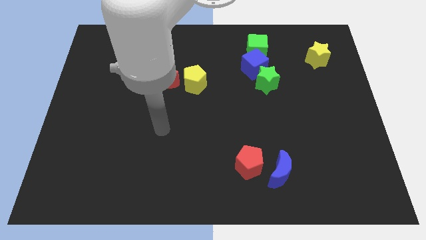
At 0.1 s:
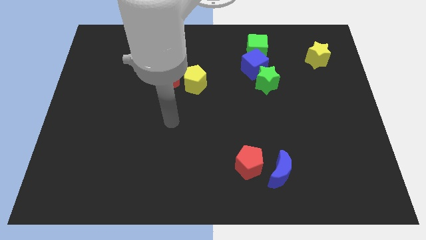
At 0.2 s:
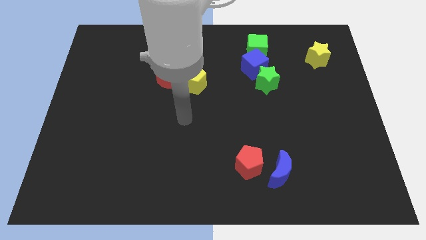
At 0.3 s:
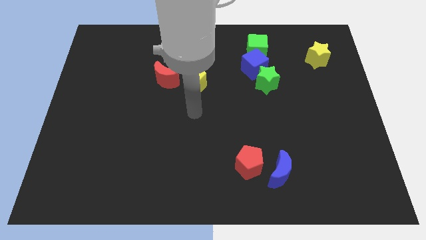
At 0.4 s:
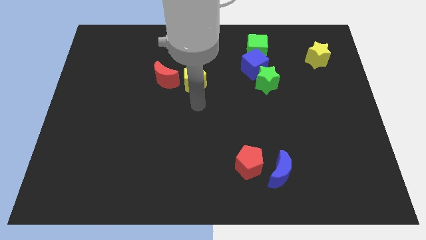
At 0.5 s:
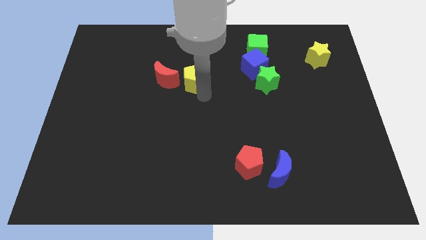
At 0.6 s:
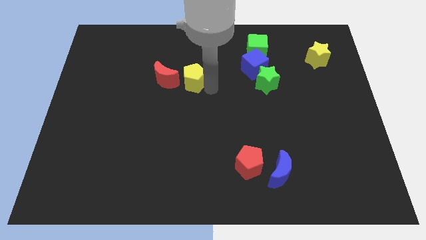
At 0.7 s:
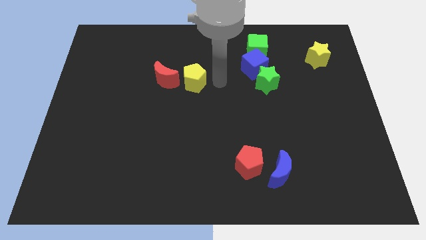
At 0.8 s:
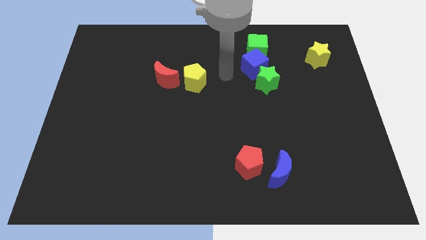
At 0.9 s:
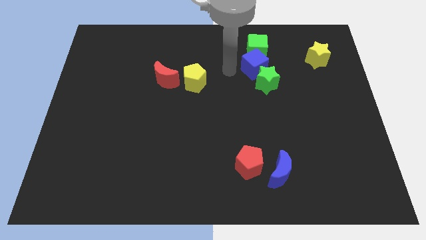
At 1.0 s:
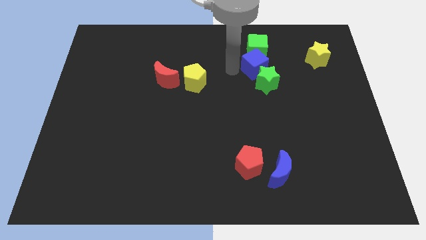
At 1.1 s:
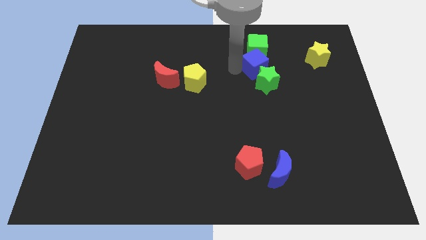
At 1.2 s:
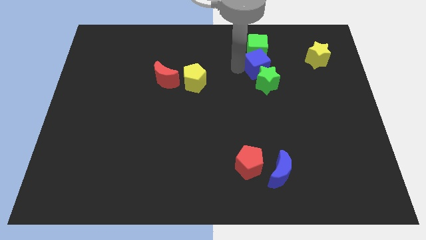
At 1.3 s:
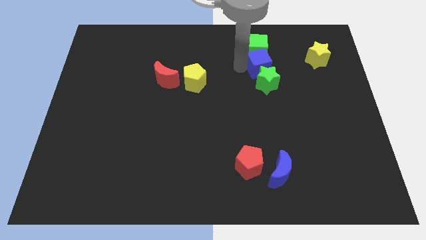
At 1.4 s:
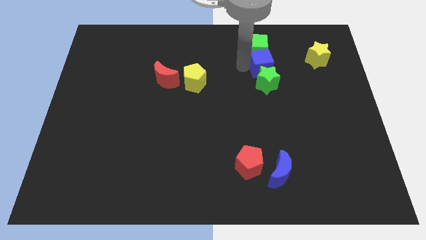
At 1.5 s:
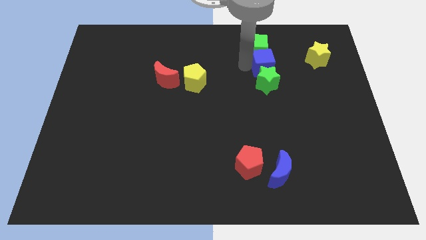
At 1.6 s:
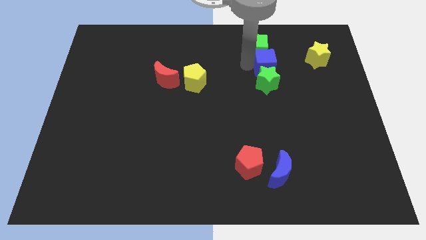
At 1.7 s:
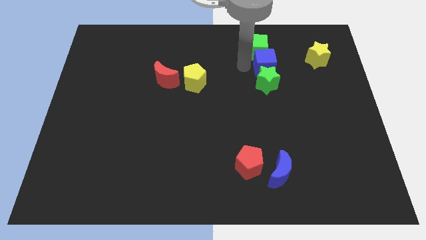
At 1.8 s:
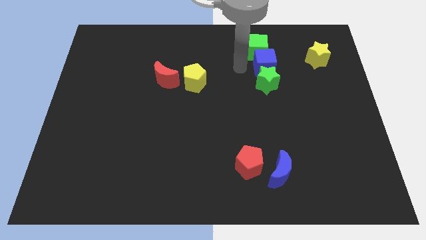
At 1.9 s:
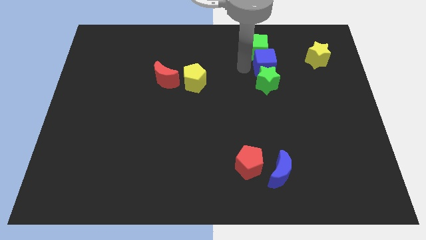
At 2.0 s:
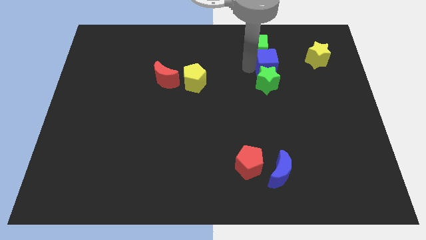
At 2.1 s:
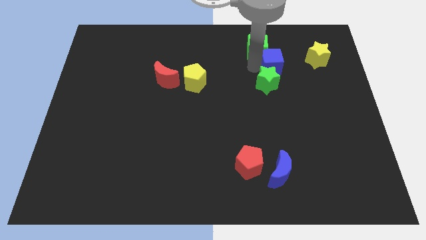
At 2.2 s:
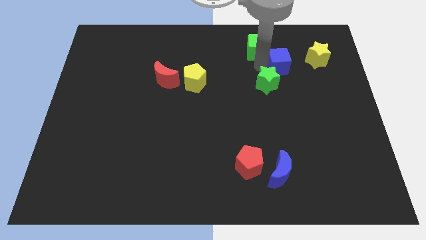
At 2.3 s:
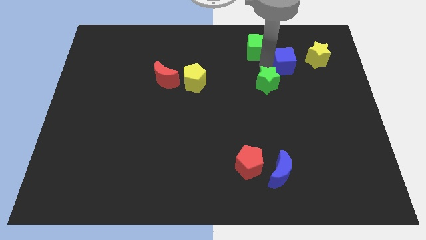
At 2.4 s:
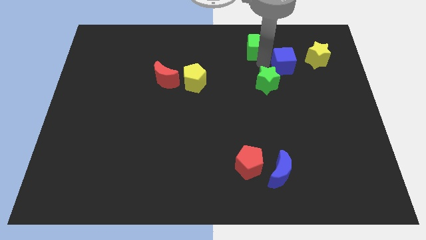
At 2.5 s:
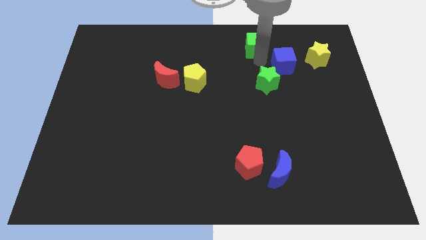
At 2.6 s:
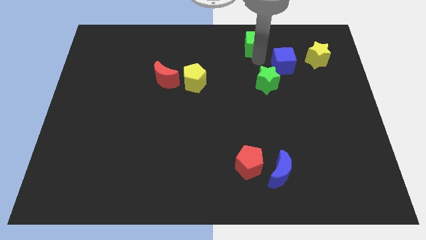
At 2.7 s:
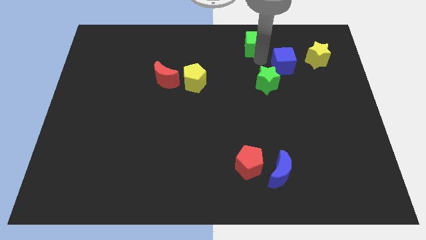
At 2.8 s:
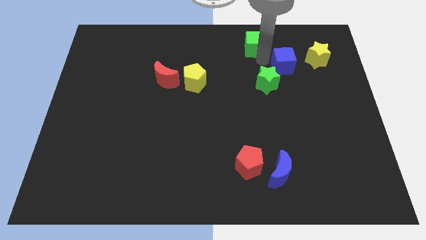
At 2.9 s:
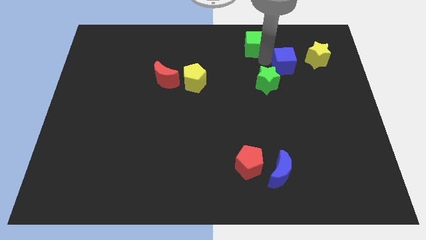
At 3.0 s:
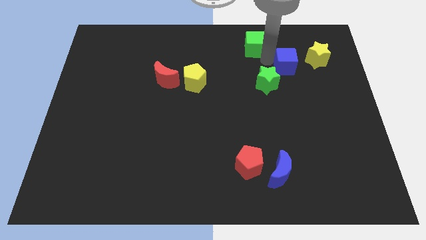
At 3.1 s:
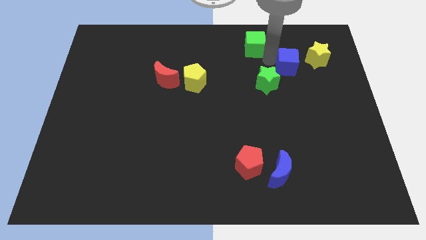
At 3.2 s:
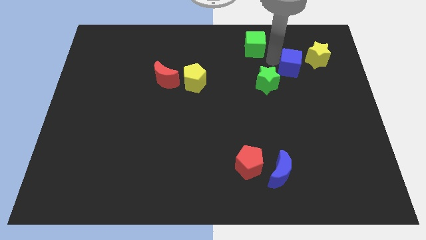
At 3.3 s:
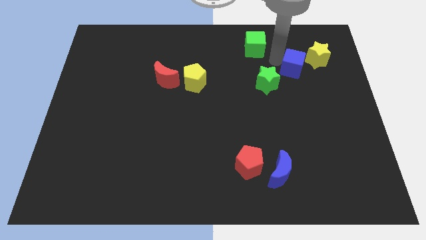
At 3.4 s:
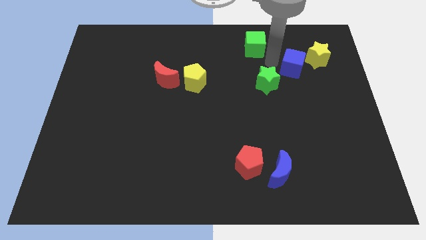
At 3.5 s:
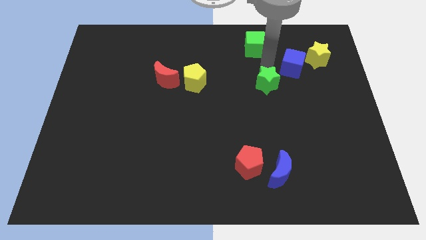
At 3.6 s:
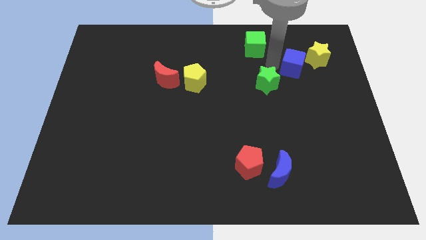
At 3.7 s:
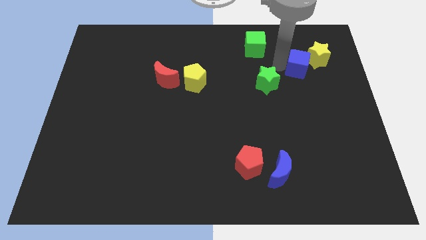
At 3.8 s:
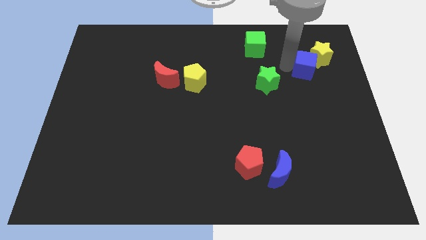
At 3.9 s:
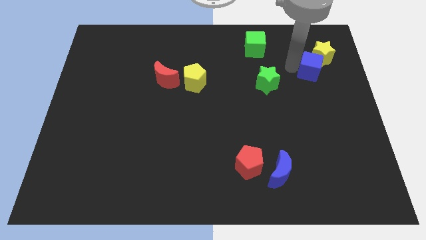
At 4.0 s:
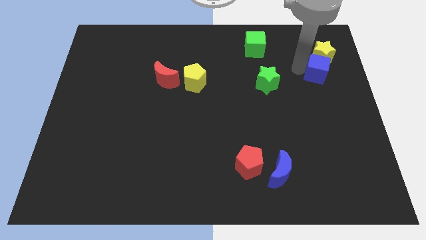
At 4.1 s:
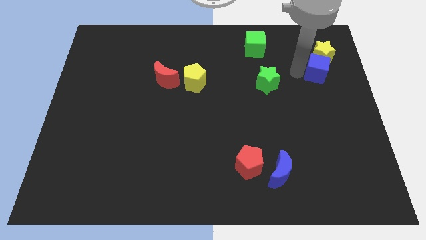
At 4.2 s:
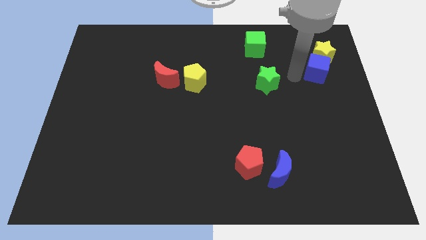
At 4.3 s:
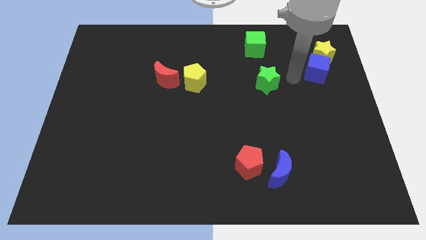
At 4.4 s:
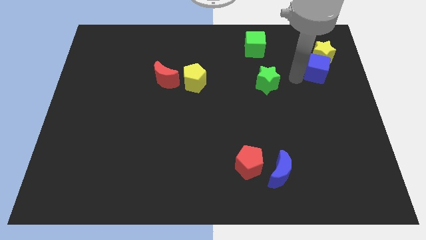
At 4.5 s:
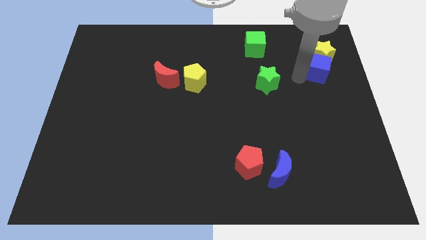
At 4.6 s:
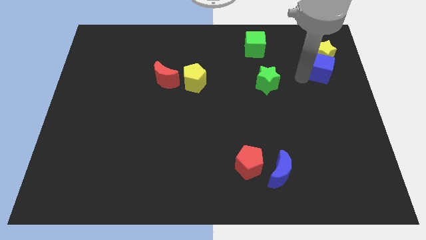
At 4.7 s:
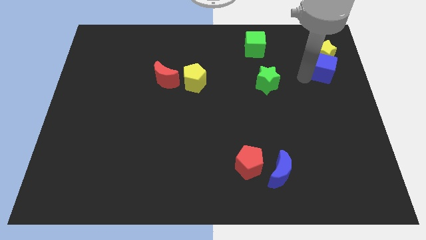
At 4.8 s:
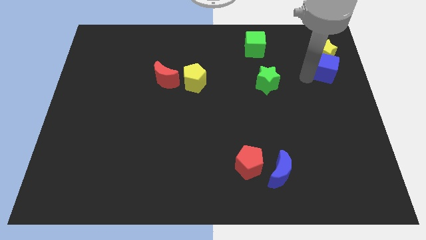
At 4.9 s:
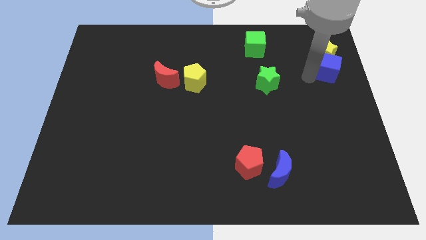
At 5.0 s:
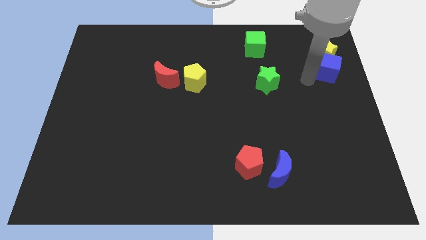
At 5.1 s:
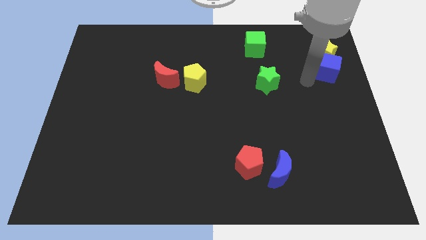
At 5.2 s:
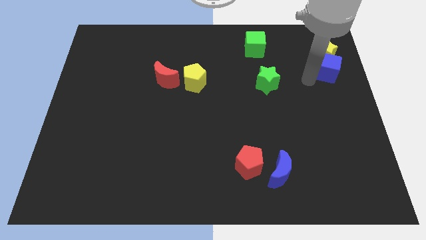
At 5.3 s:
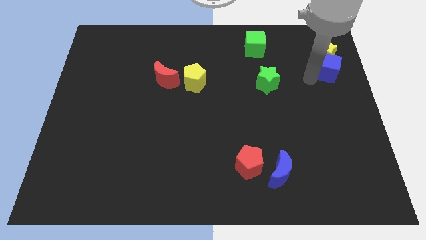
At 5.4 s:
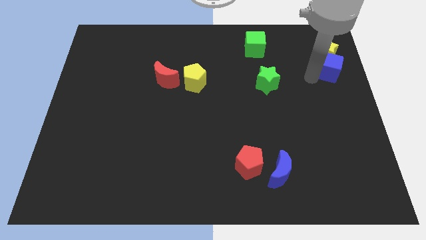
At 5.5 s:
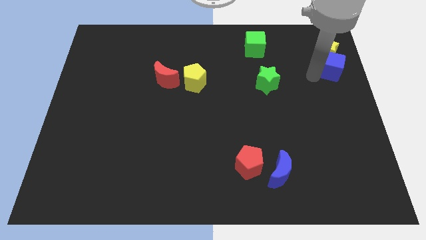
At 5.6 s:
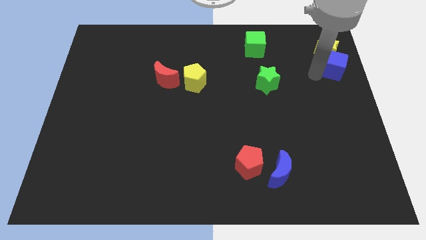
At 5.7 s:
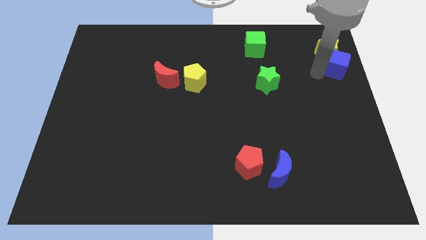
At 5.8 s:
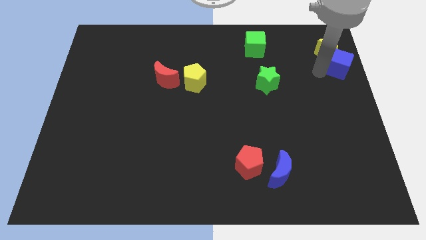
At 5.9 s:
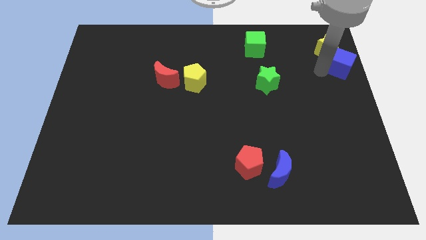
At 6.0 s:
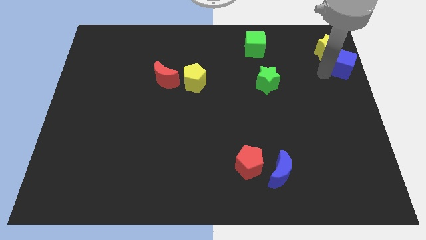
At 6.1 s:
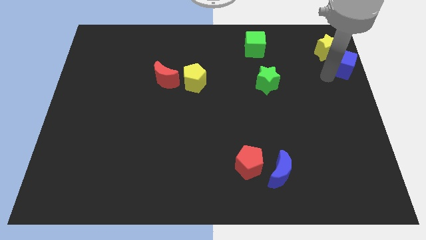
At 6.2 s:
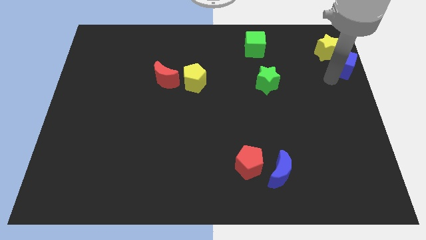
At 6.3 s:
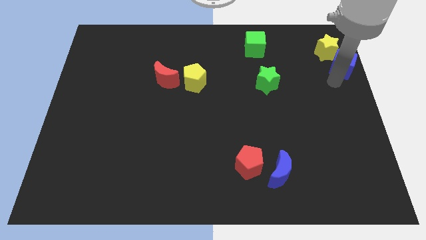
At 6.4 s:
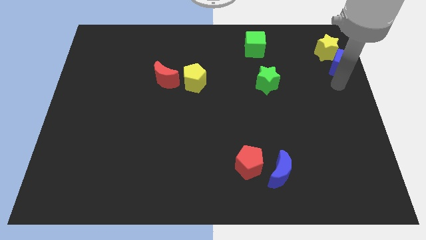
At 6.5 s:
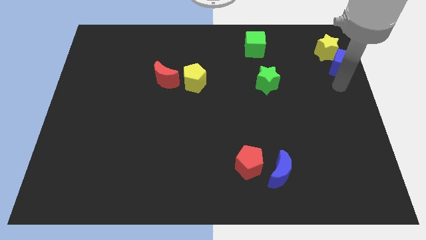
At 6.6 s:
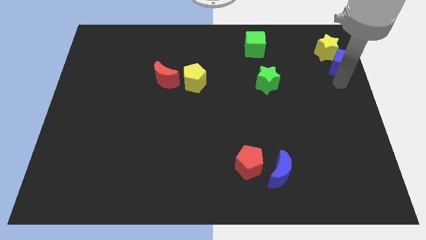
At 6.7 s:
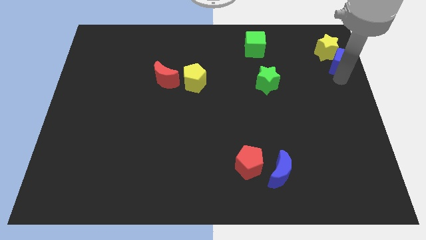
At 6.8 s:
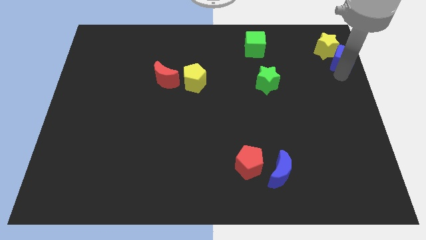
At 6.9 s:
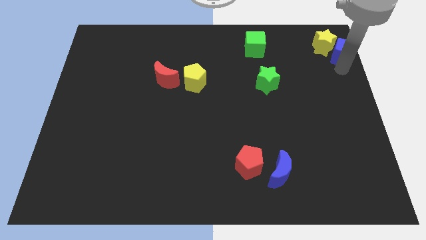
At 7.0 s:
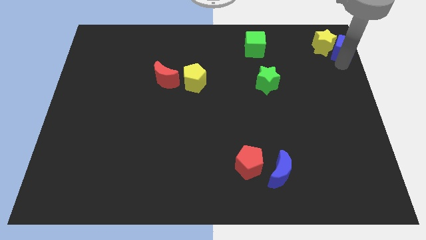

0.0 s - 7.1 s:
slide the blue cube to the top right of the board
